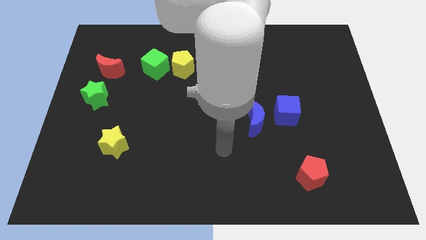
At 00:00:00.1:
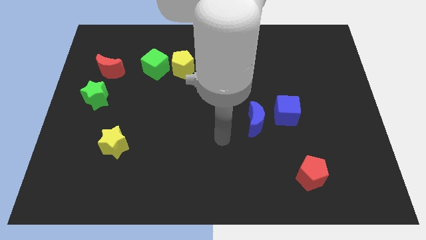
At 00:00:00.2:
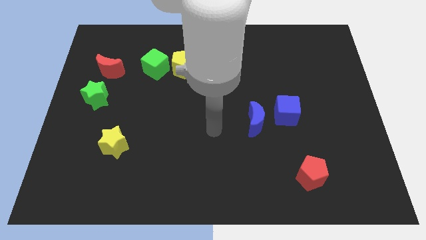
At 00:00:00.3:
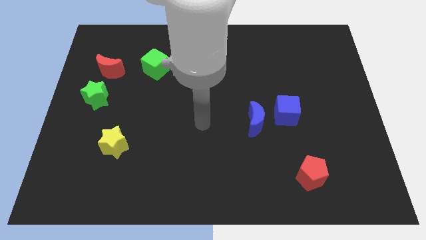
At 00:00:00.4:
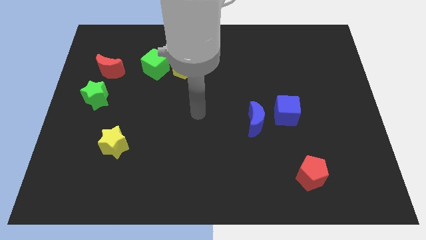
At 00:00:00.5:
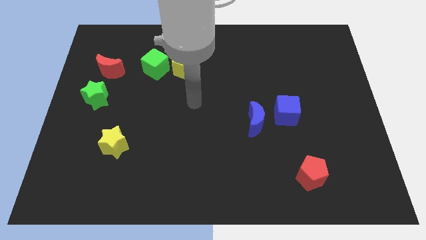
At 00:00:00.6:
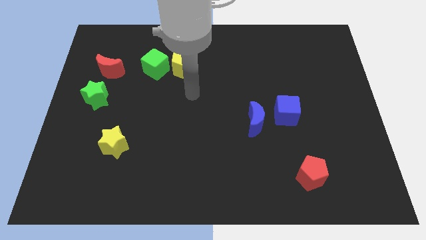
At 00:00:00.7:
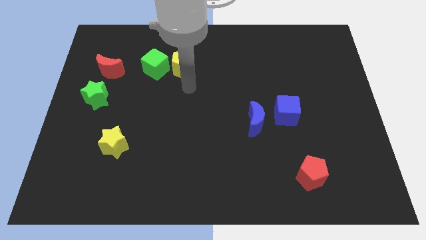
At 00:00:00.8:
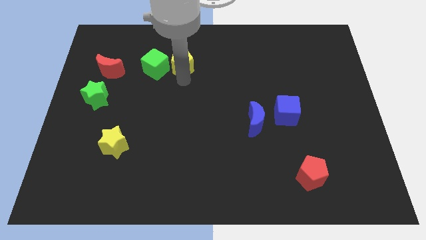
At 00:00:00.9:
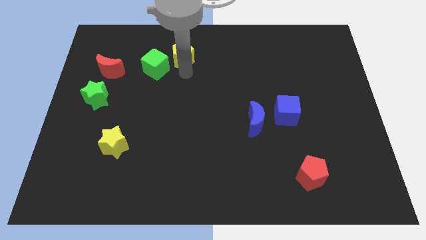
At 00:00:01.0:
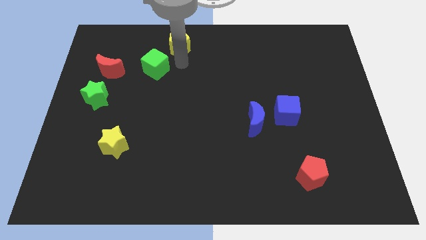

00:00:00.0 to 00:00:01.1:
pull the green cube apart from the yellow pentagon

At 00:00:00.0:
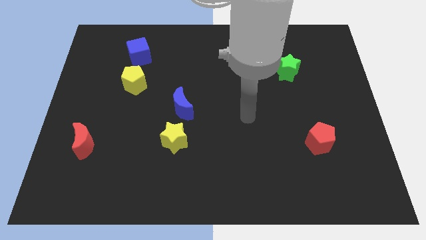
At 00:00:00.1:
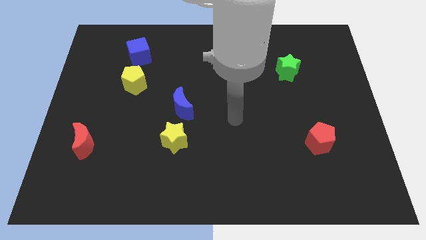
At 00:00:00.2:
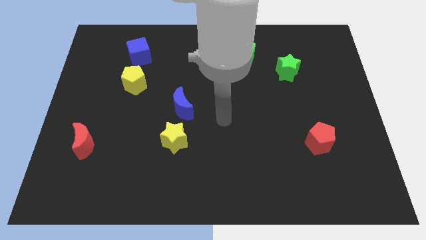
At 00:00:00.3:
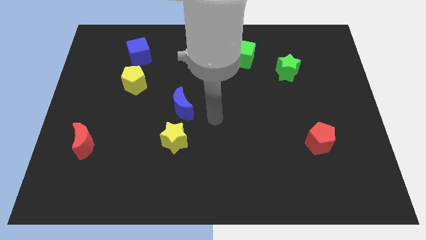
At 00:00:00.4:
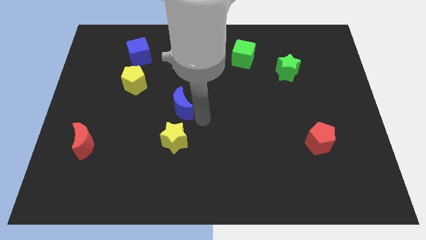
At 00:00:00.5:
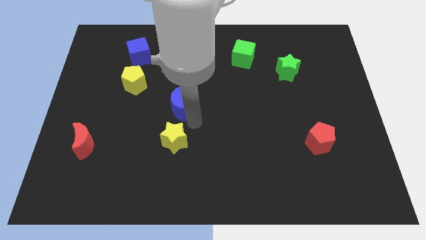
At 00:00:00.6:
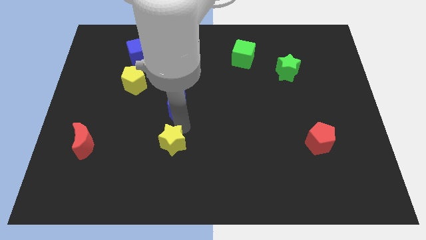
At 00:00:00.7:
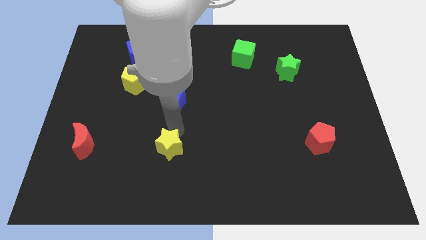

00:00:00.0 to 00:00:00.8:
separate the blue moon from the yellow star

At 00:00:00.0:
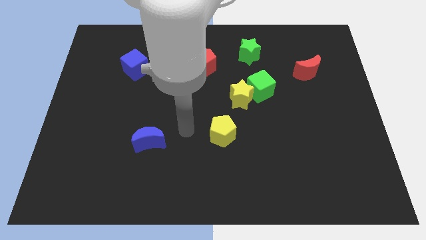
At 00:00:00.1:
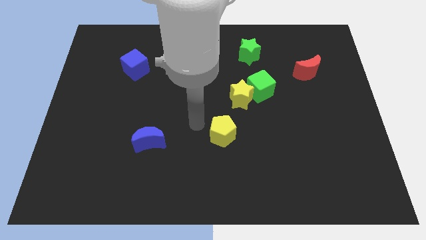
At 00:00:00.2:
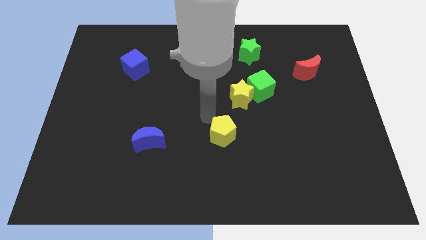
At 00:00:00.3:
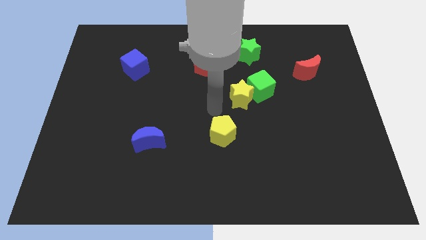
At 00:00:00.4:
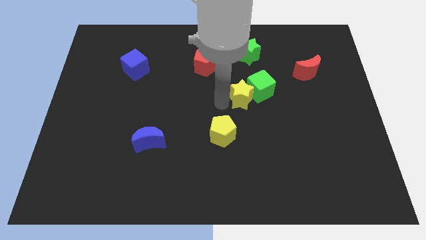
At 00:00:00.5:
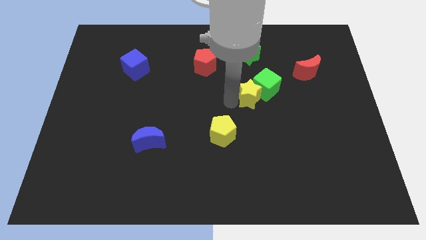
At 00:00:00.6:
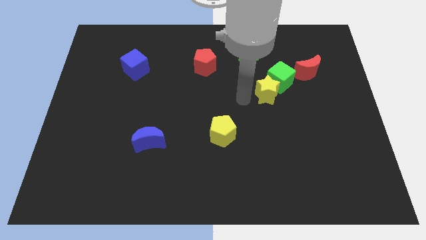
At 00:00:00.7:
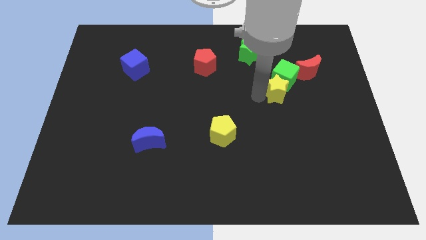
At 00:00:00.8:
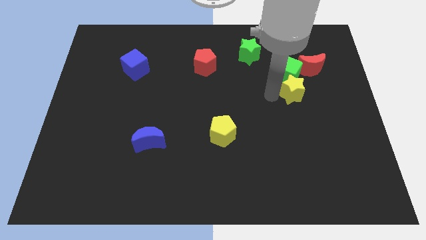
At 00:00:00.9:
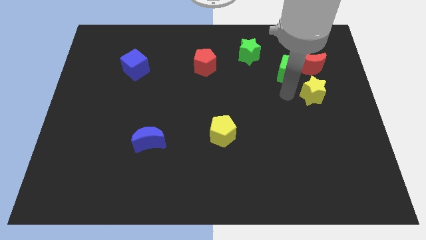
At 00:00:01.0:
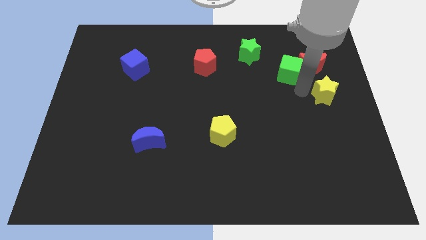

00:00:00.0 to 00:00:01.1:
pull the green cube apart from the yellow star

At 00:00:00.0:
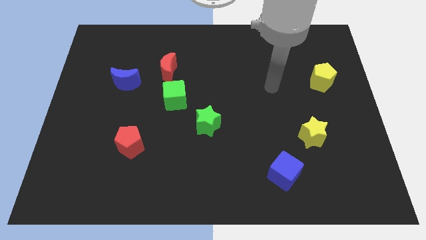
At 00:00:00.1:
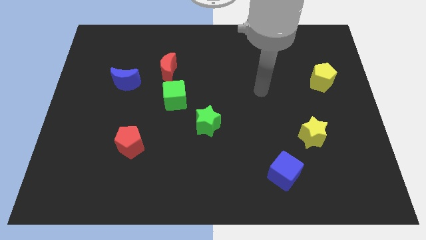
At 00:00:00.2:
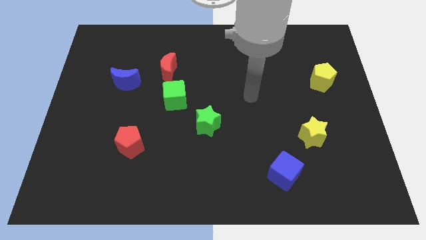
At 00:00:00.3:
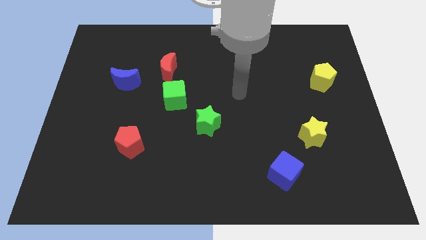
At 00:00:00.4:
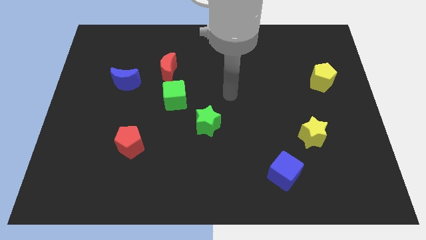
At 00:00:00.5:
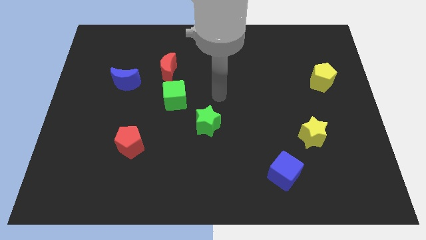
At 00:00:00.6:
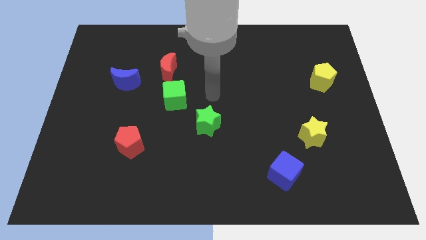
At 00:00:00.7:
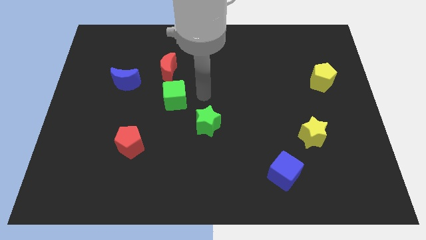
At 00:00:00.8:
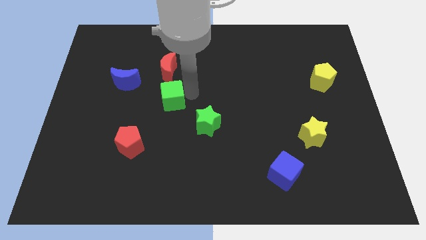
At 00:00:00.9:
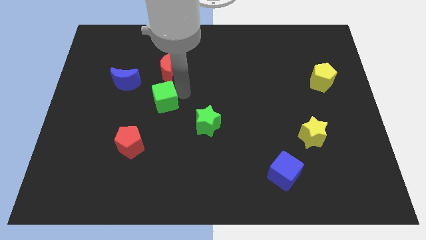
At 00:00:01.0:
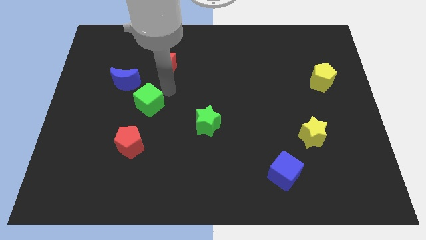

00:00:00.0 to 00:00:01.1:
move the red moon away from the green cube

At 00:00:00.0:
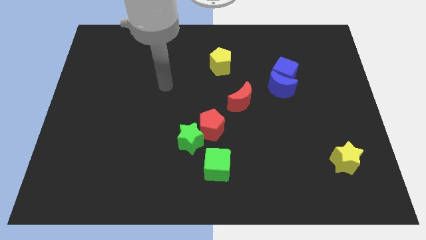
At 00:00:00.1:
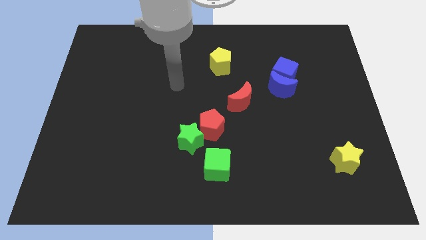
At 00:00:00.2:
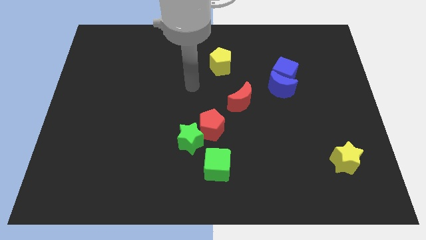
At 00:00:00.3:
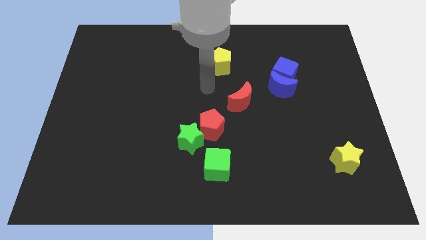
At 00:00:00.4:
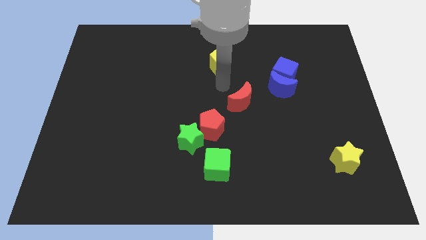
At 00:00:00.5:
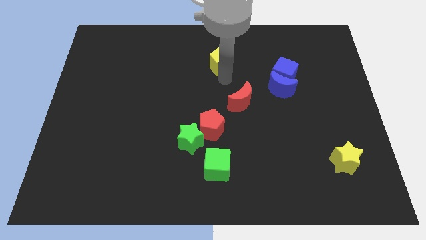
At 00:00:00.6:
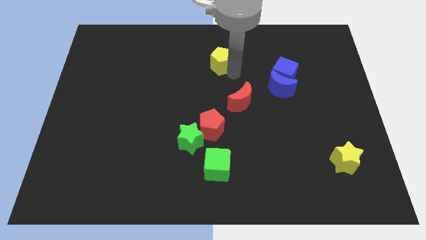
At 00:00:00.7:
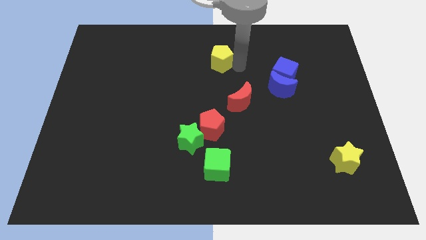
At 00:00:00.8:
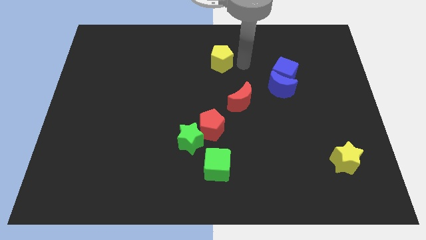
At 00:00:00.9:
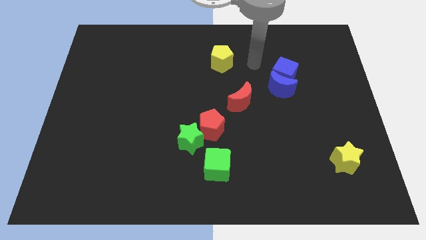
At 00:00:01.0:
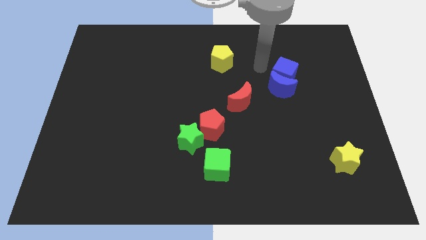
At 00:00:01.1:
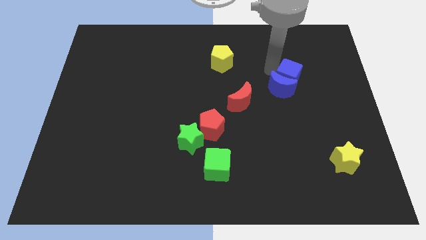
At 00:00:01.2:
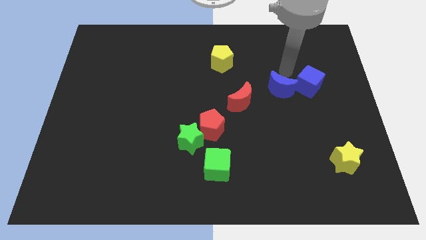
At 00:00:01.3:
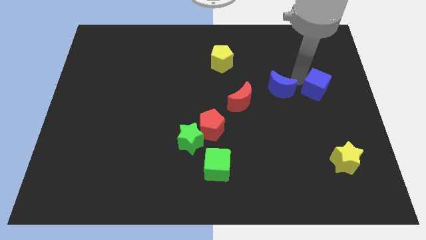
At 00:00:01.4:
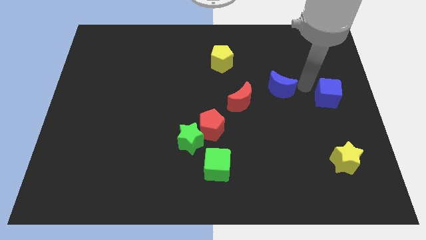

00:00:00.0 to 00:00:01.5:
move the blue moon away from the blue cube

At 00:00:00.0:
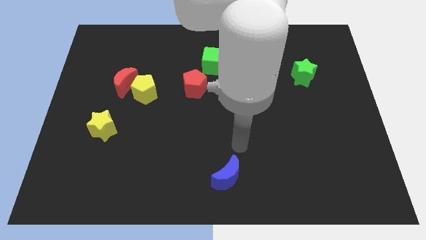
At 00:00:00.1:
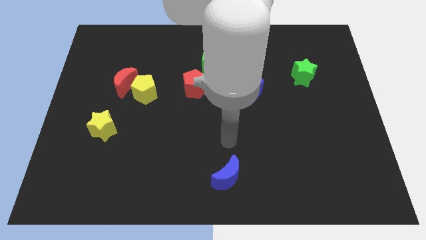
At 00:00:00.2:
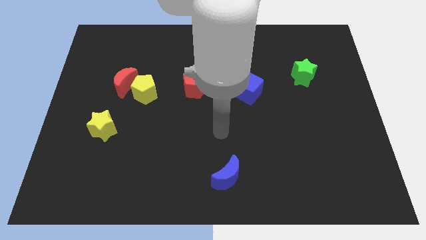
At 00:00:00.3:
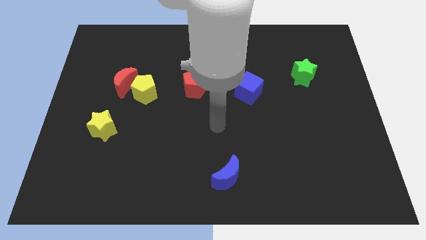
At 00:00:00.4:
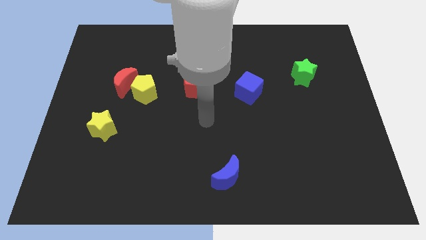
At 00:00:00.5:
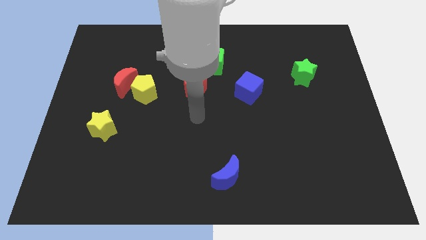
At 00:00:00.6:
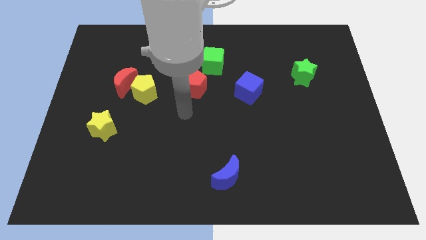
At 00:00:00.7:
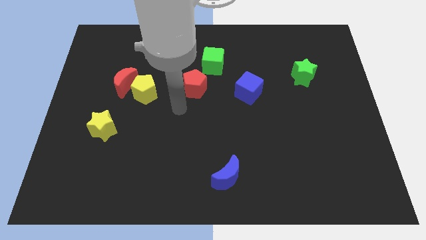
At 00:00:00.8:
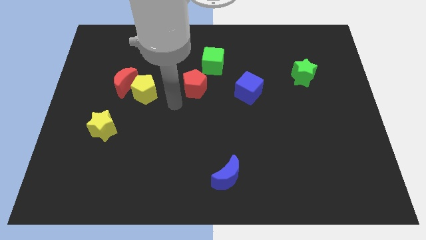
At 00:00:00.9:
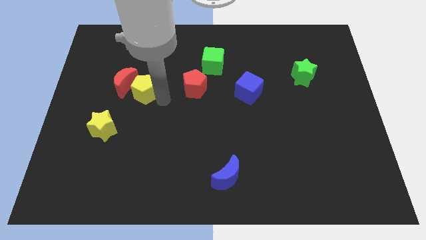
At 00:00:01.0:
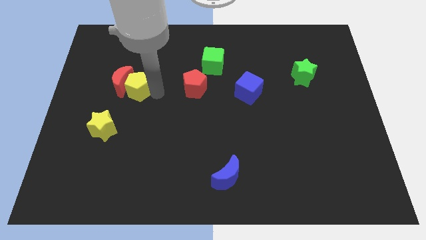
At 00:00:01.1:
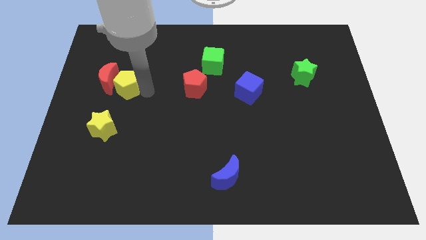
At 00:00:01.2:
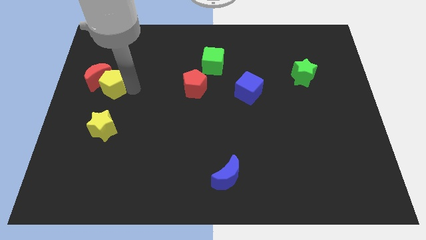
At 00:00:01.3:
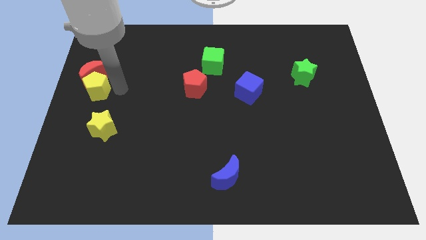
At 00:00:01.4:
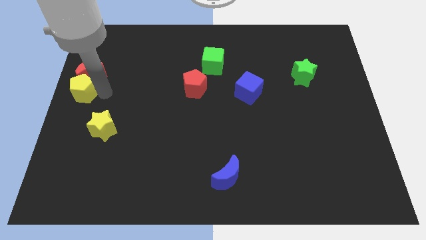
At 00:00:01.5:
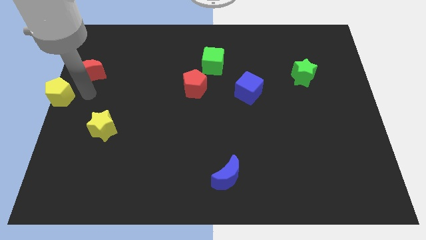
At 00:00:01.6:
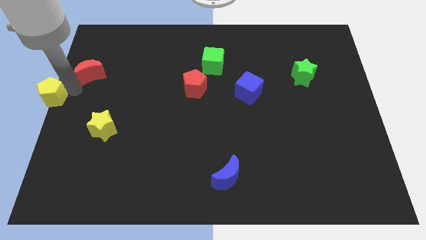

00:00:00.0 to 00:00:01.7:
separate the red moon from the yellow pentagon

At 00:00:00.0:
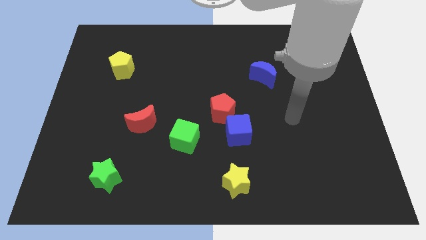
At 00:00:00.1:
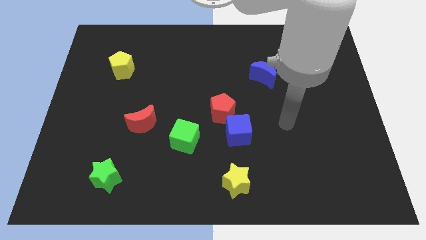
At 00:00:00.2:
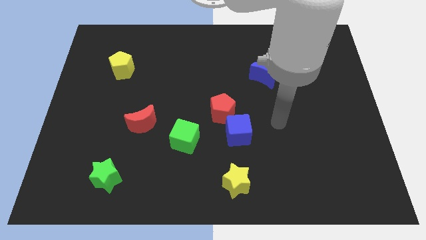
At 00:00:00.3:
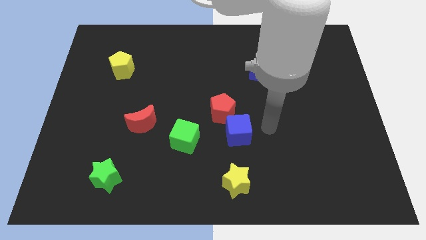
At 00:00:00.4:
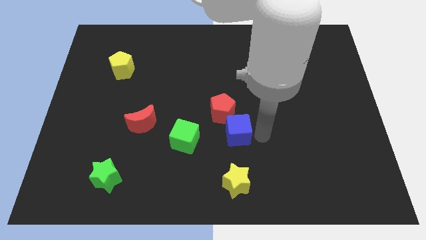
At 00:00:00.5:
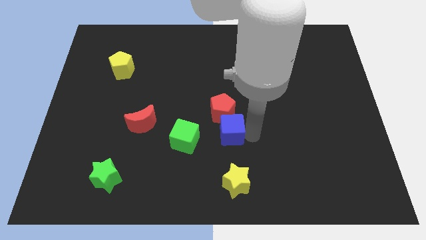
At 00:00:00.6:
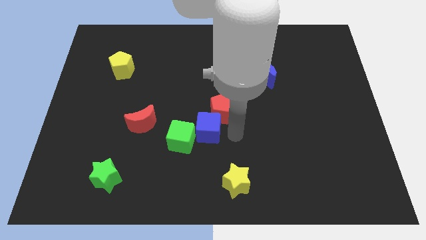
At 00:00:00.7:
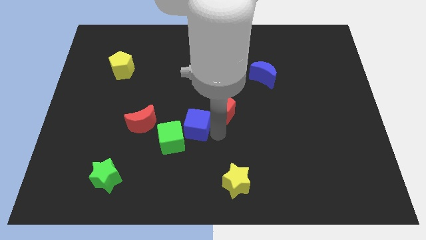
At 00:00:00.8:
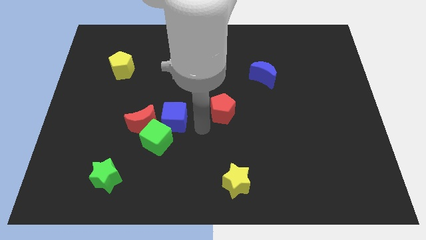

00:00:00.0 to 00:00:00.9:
separate the red pentagon from the blue cube

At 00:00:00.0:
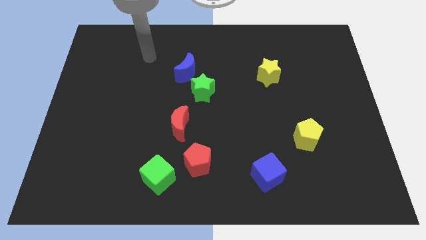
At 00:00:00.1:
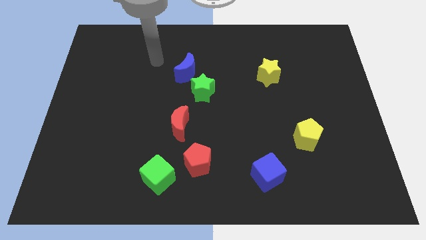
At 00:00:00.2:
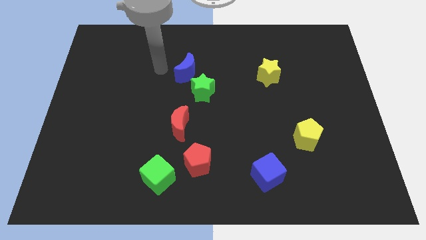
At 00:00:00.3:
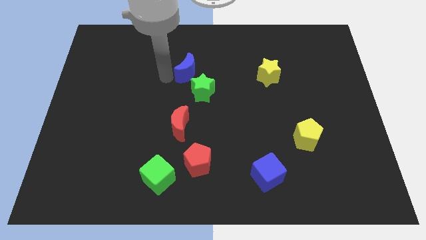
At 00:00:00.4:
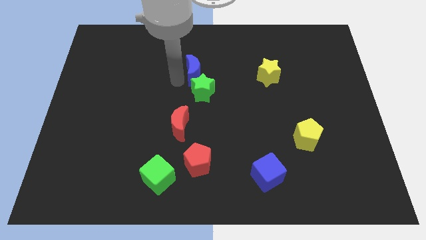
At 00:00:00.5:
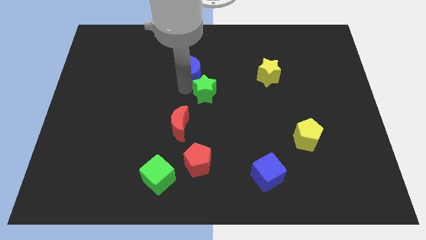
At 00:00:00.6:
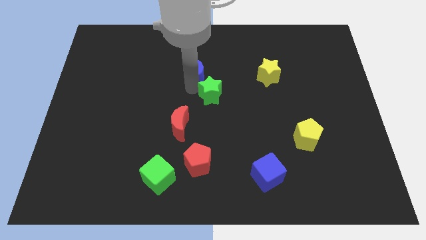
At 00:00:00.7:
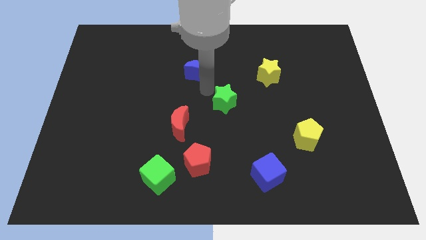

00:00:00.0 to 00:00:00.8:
move the blue moon away from the green star
